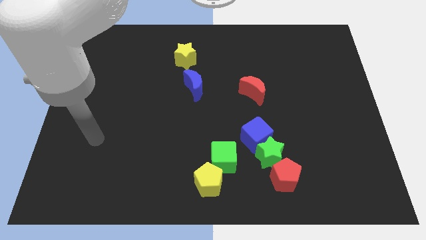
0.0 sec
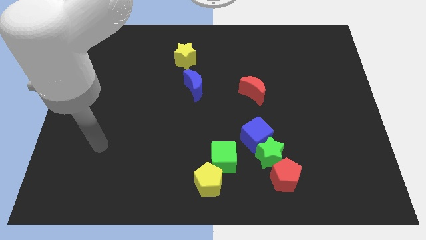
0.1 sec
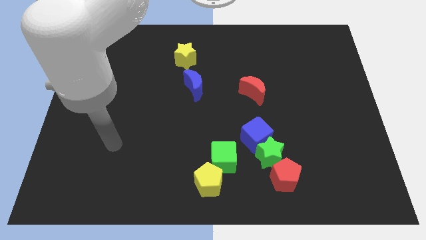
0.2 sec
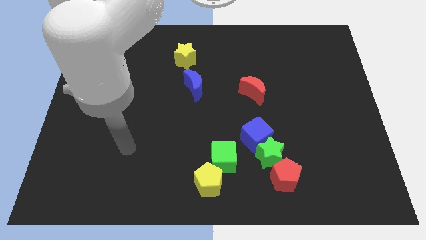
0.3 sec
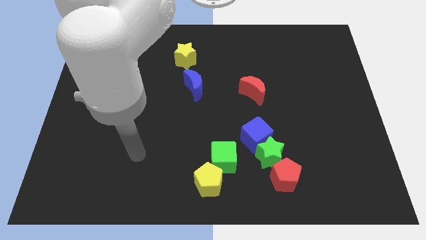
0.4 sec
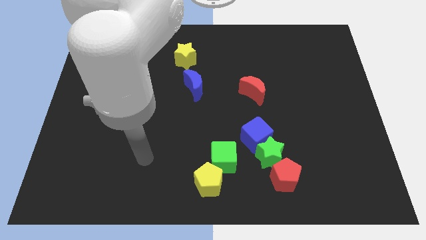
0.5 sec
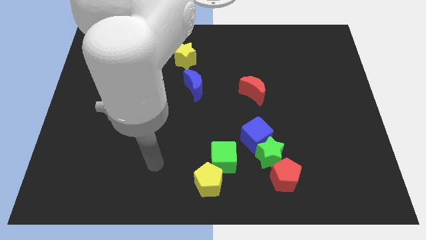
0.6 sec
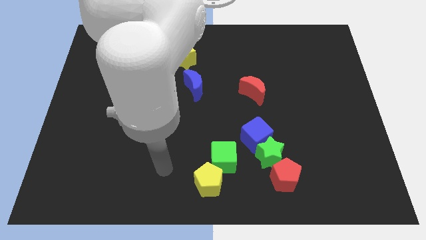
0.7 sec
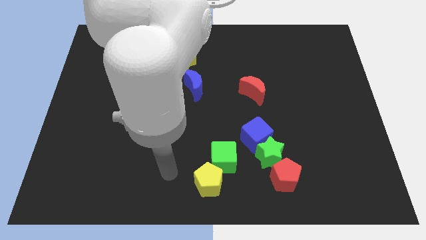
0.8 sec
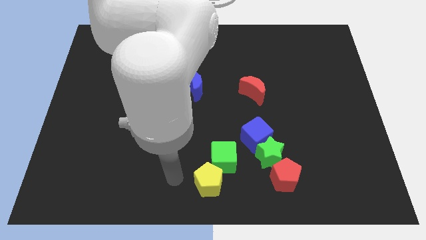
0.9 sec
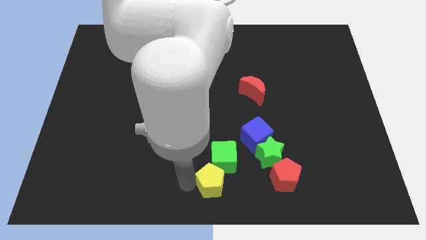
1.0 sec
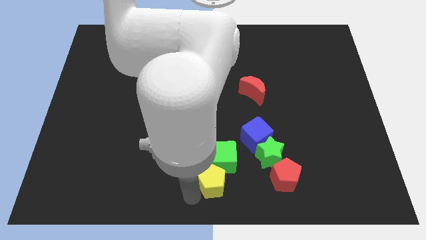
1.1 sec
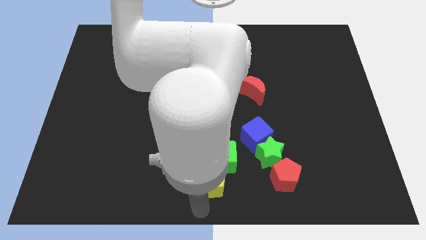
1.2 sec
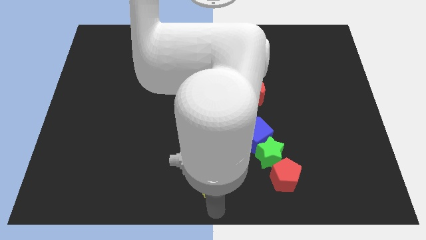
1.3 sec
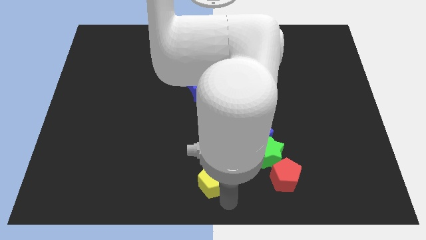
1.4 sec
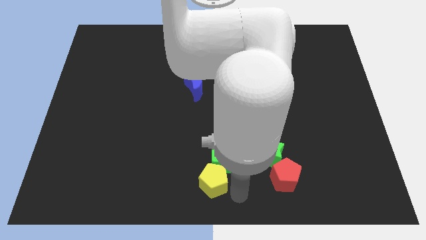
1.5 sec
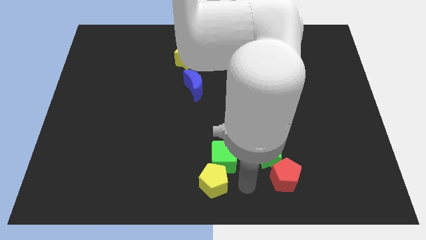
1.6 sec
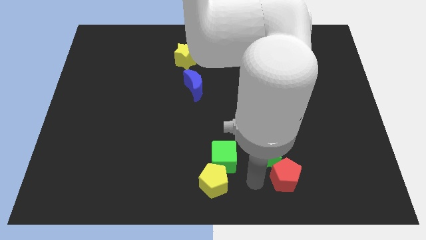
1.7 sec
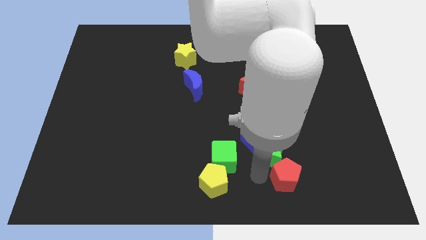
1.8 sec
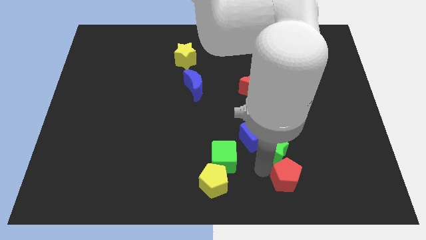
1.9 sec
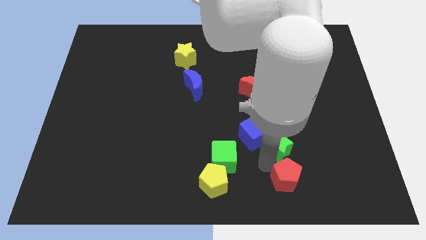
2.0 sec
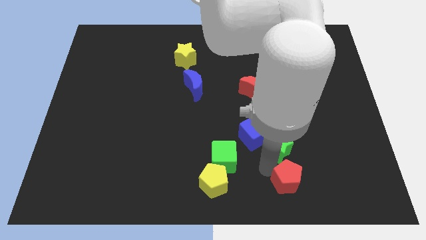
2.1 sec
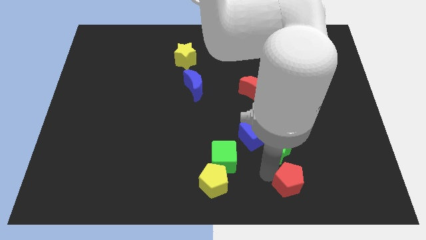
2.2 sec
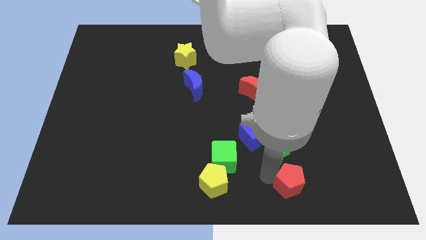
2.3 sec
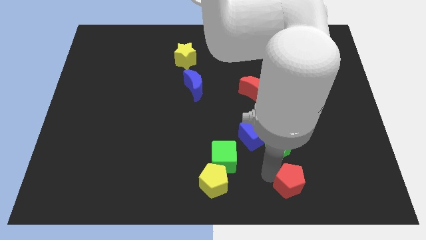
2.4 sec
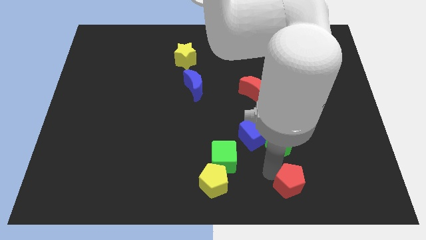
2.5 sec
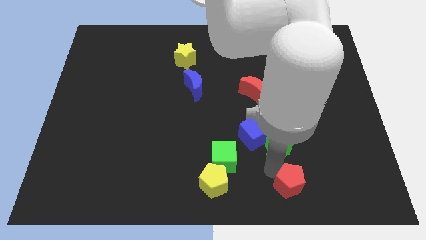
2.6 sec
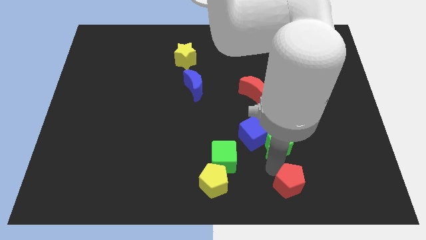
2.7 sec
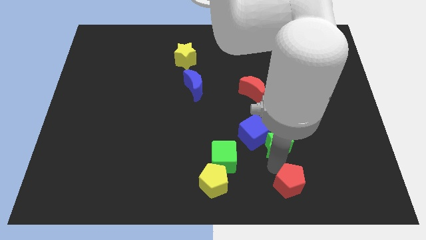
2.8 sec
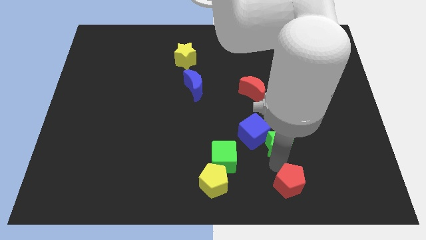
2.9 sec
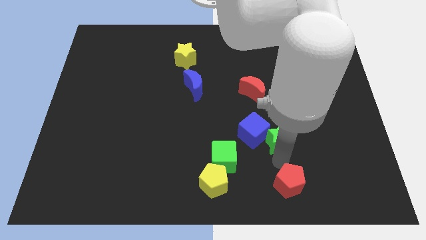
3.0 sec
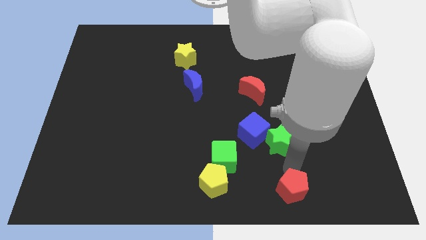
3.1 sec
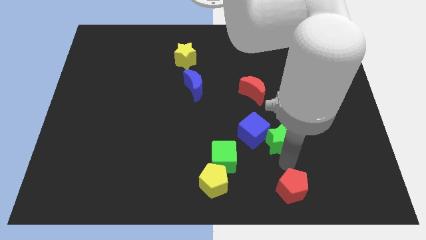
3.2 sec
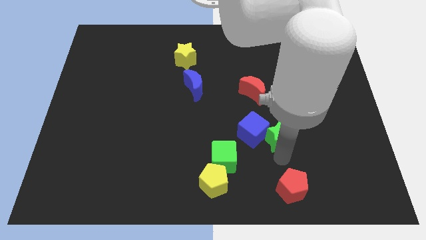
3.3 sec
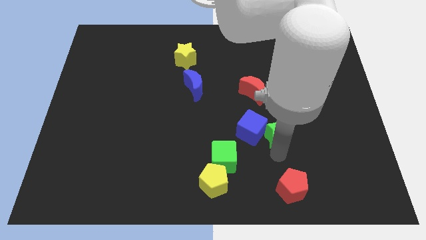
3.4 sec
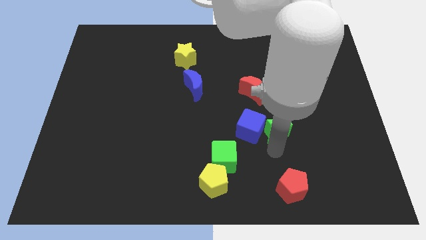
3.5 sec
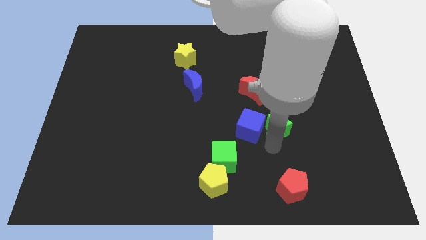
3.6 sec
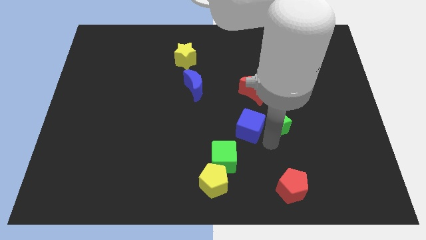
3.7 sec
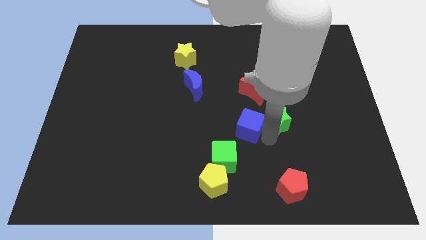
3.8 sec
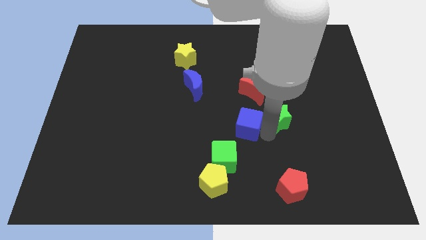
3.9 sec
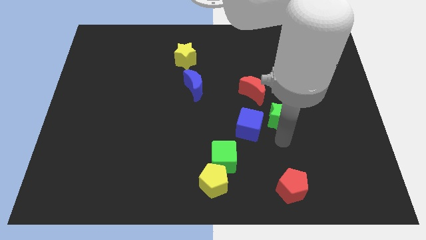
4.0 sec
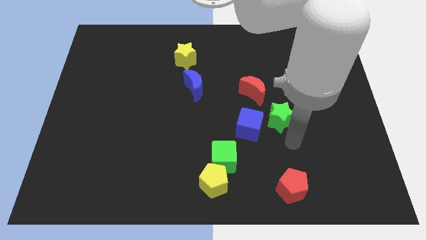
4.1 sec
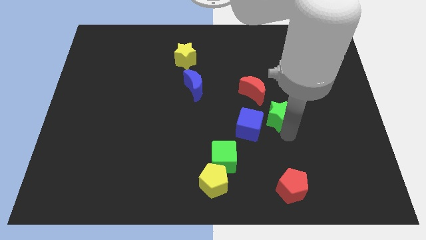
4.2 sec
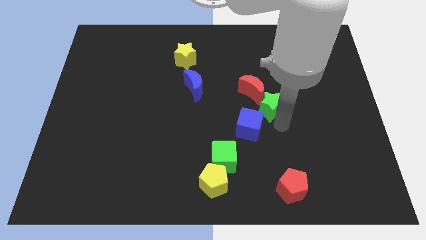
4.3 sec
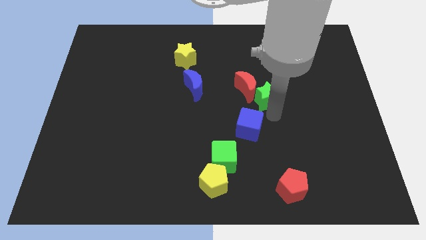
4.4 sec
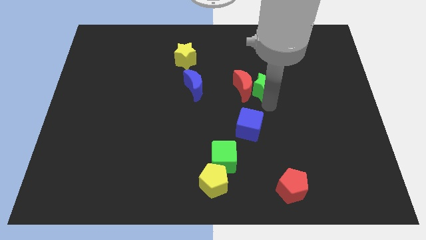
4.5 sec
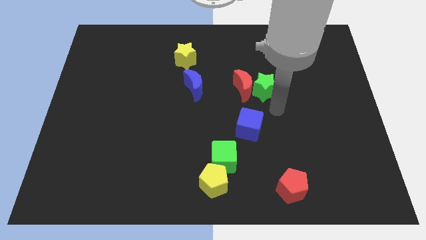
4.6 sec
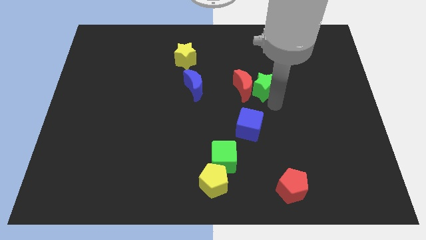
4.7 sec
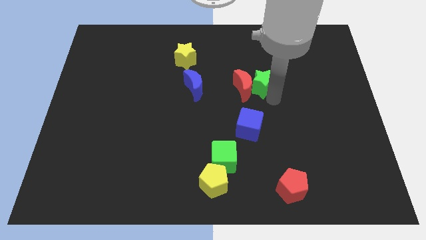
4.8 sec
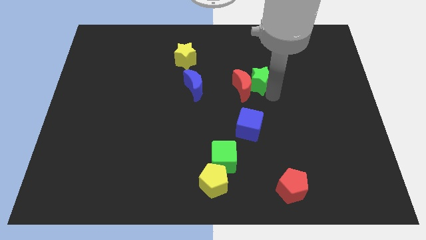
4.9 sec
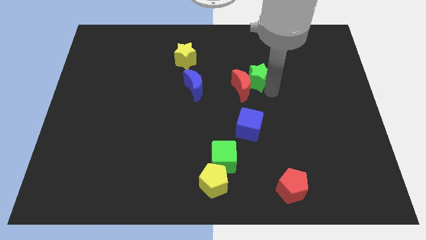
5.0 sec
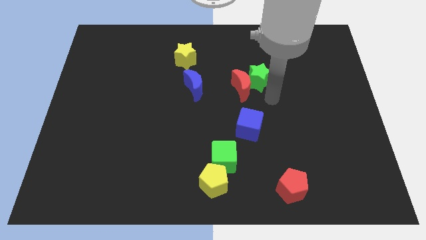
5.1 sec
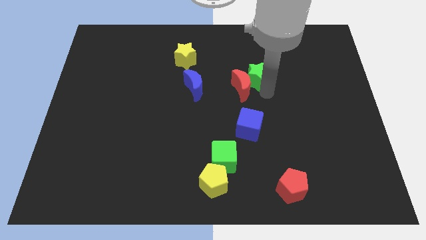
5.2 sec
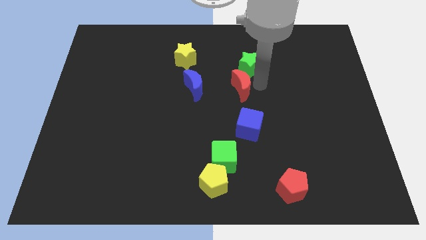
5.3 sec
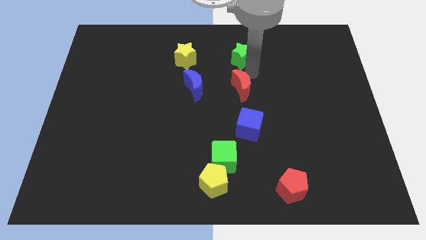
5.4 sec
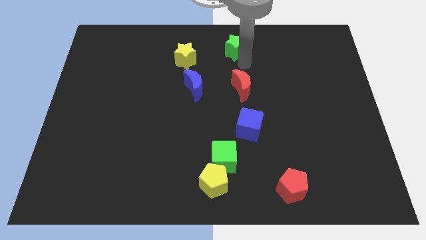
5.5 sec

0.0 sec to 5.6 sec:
push the green star to the towards your base
